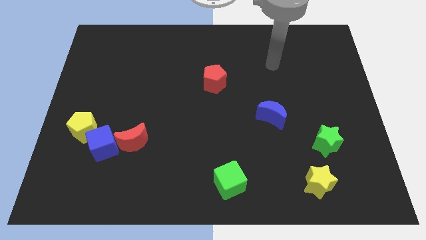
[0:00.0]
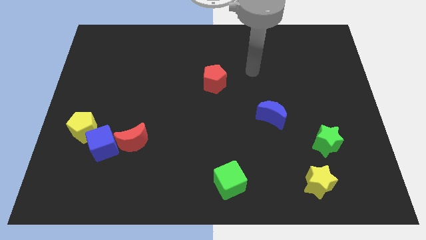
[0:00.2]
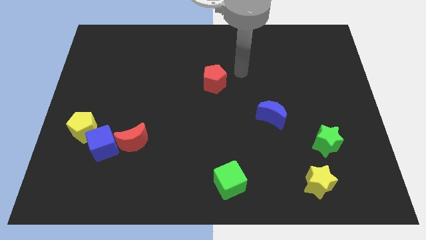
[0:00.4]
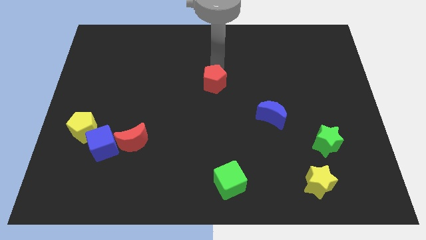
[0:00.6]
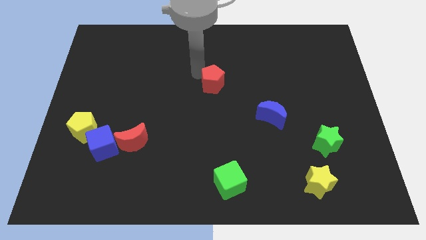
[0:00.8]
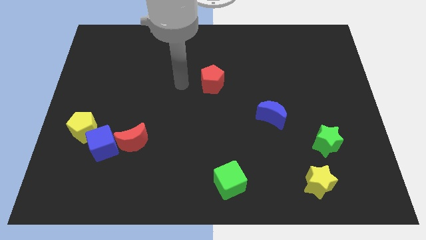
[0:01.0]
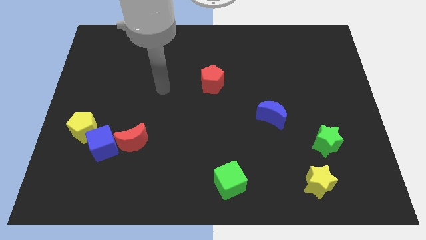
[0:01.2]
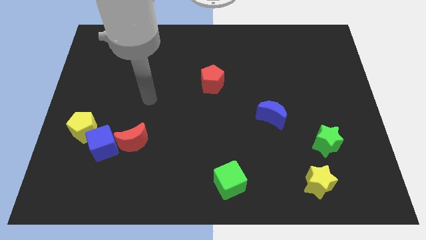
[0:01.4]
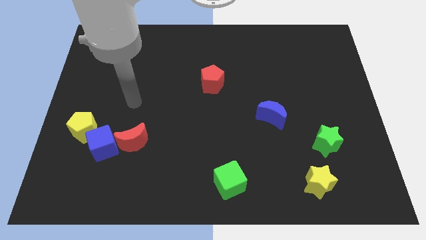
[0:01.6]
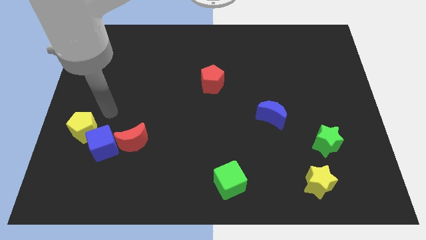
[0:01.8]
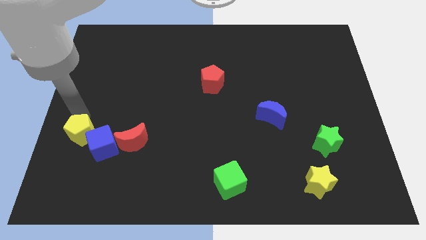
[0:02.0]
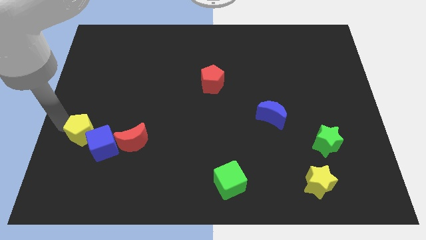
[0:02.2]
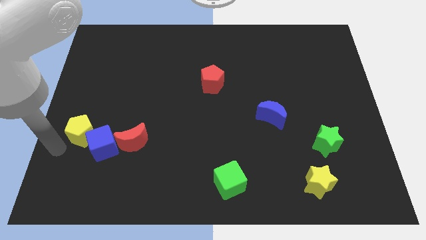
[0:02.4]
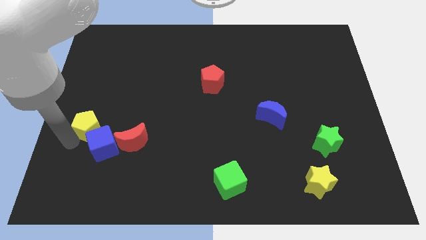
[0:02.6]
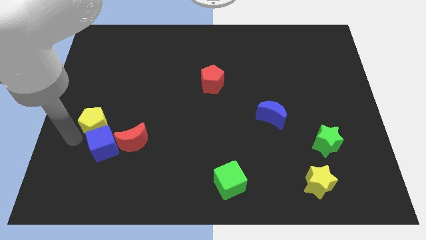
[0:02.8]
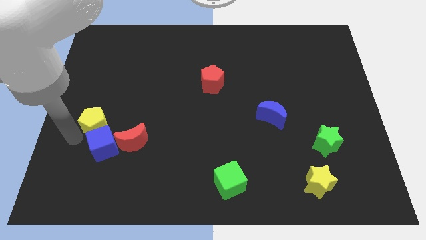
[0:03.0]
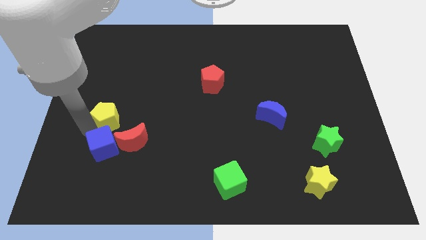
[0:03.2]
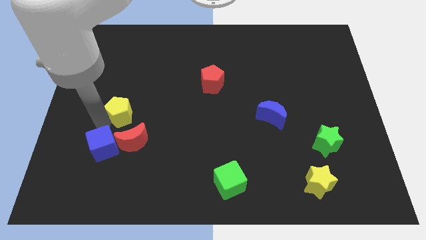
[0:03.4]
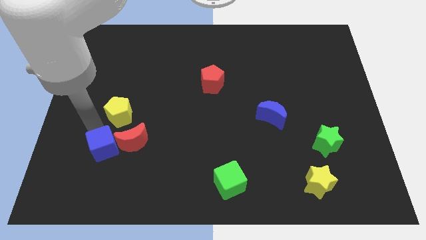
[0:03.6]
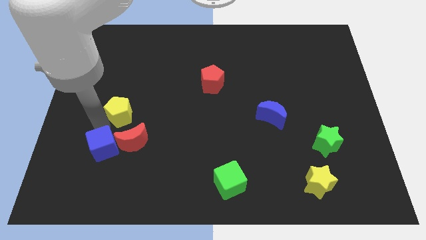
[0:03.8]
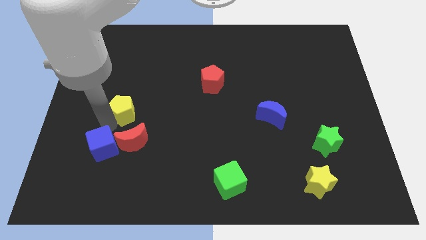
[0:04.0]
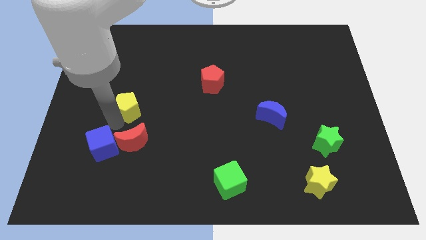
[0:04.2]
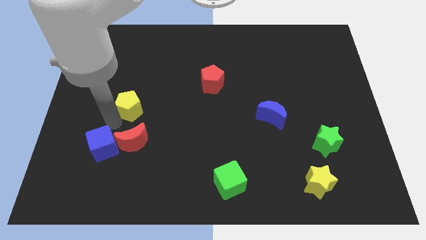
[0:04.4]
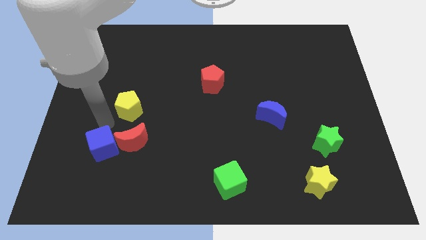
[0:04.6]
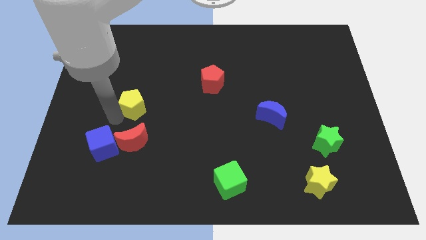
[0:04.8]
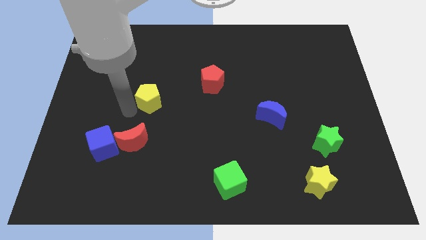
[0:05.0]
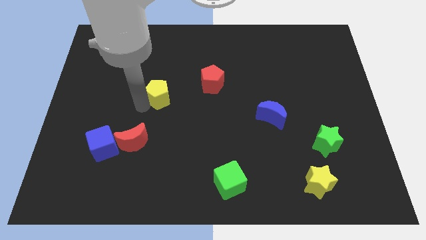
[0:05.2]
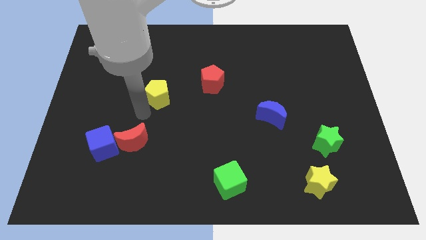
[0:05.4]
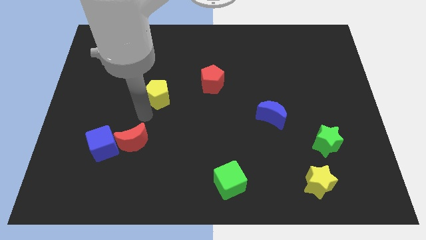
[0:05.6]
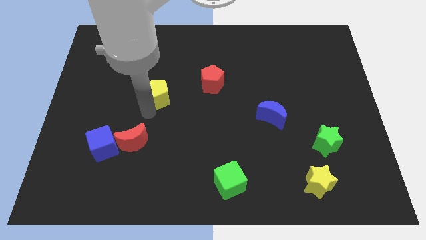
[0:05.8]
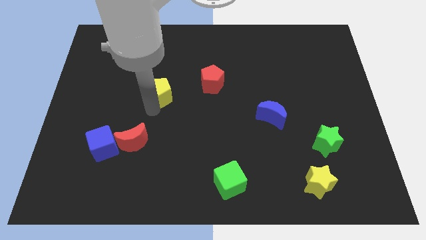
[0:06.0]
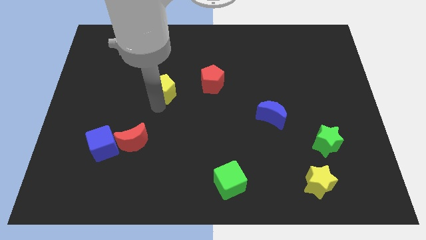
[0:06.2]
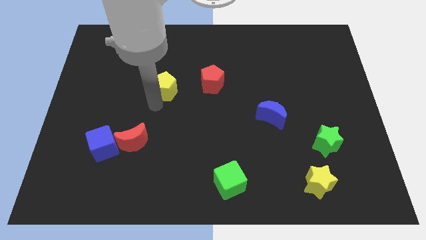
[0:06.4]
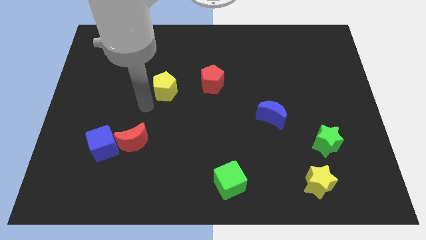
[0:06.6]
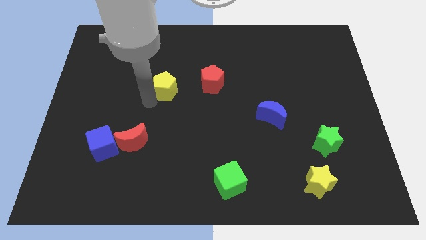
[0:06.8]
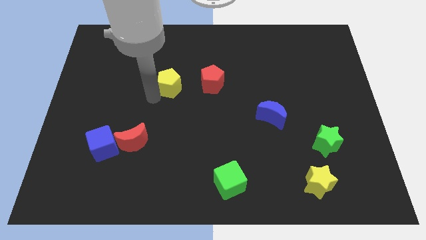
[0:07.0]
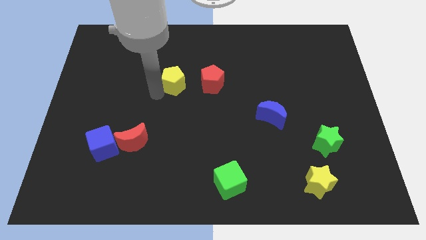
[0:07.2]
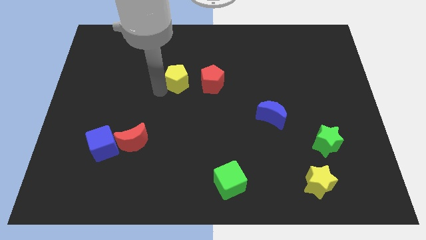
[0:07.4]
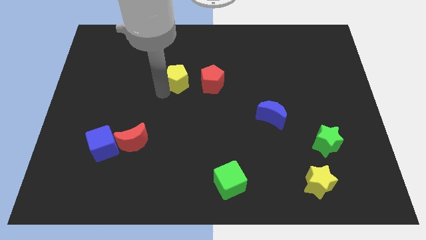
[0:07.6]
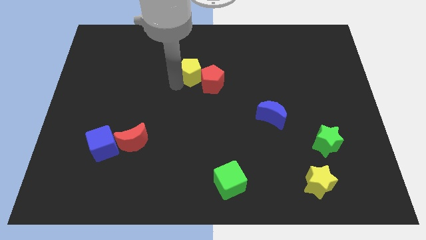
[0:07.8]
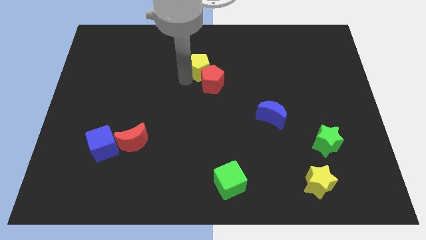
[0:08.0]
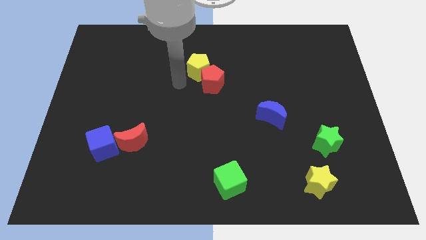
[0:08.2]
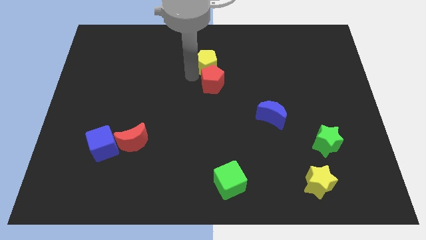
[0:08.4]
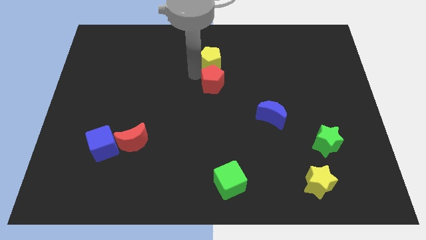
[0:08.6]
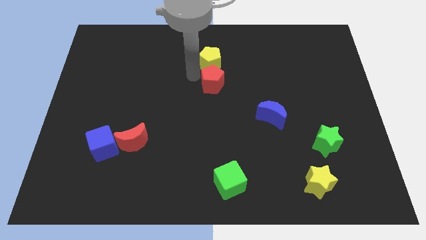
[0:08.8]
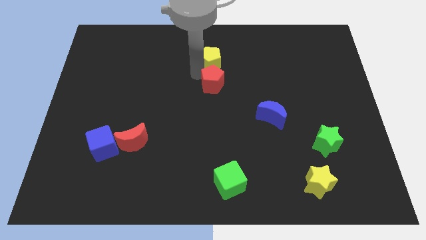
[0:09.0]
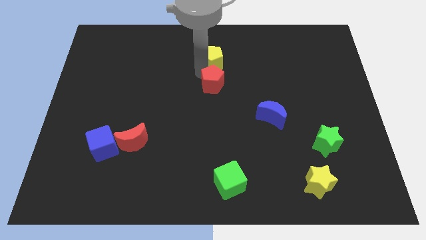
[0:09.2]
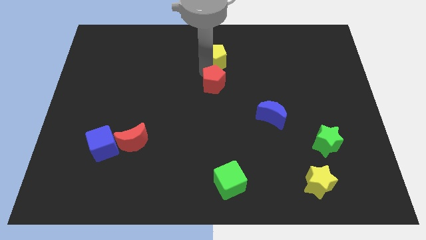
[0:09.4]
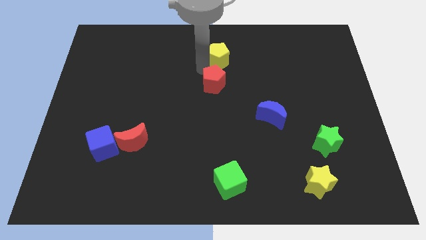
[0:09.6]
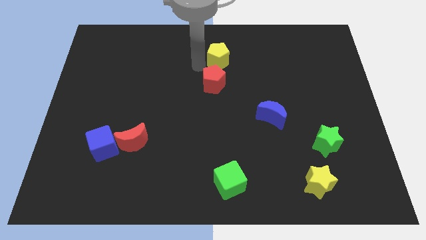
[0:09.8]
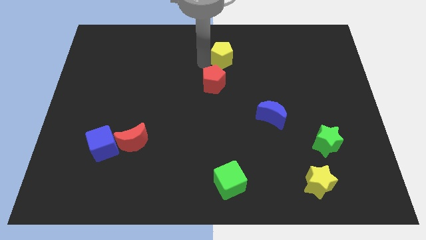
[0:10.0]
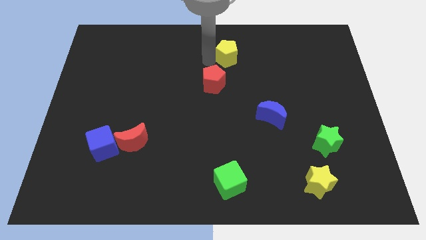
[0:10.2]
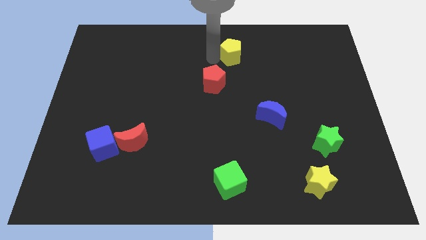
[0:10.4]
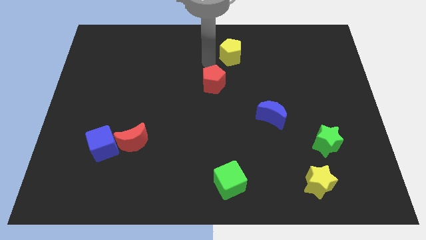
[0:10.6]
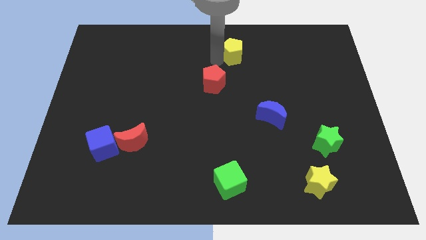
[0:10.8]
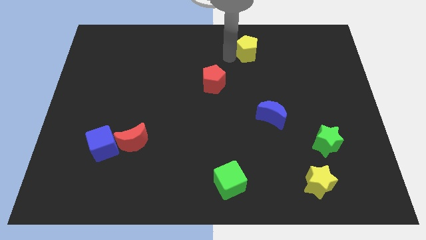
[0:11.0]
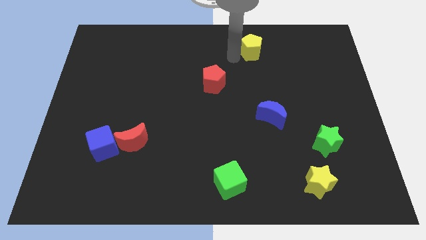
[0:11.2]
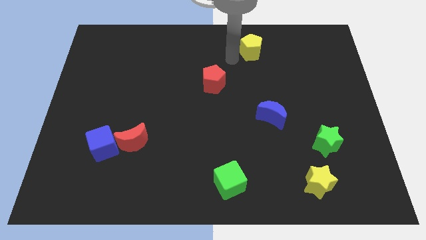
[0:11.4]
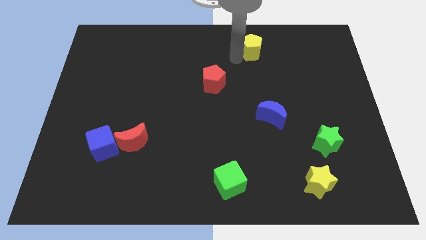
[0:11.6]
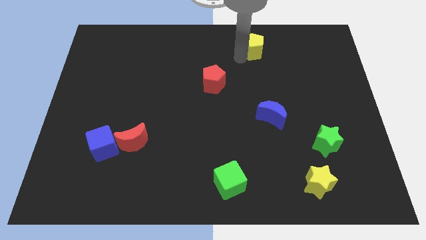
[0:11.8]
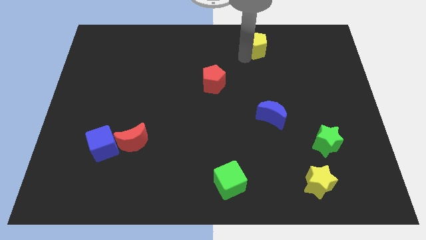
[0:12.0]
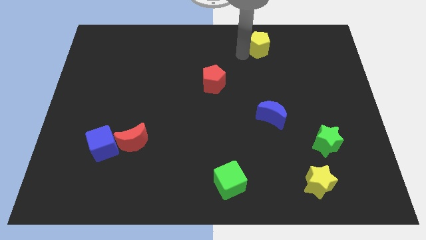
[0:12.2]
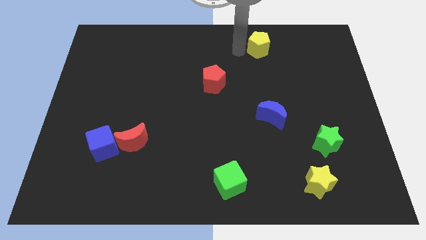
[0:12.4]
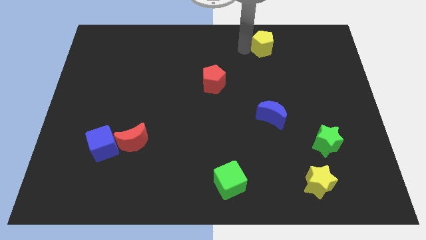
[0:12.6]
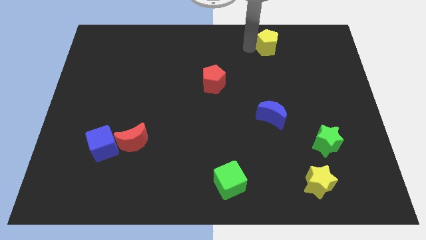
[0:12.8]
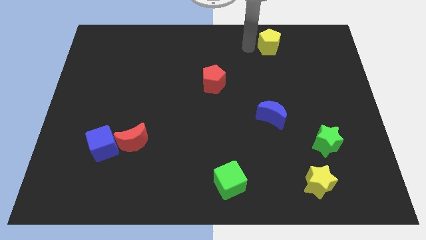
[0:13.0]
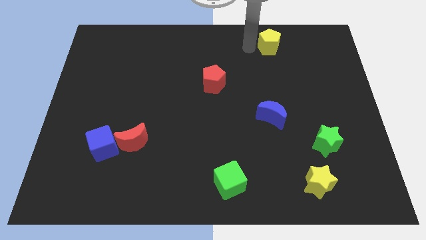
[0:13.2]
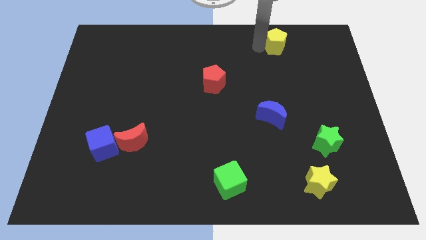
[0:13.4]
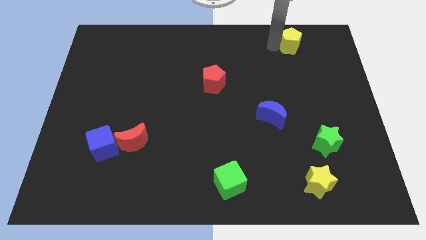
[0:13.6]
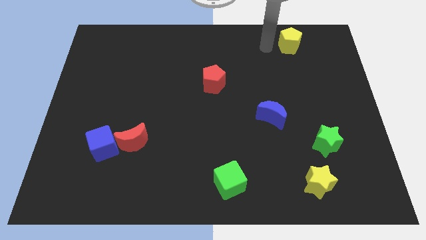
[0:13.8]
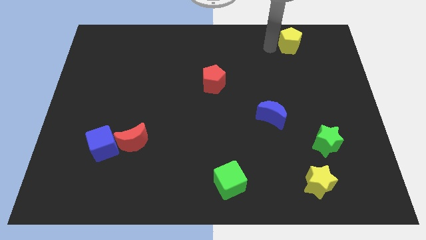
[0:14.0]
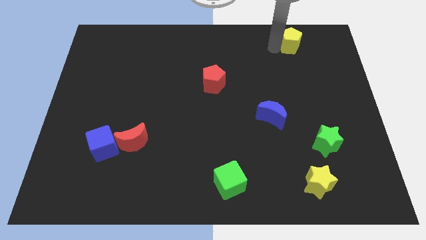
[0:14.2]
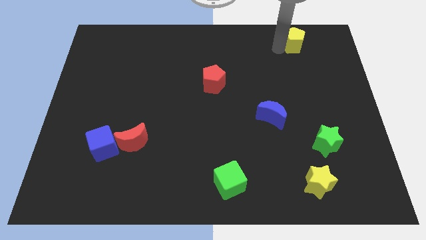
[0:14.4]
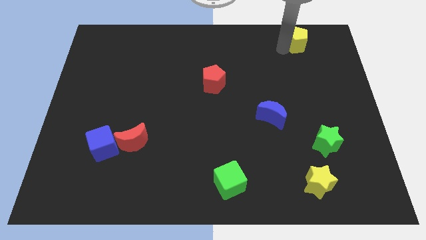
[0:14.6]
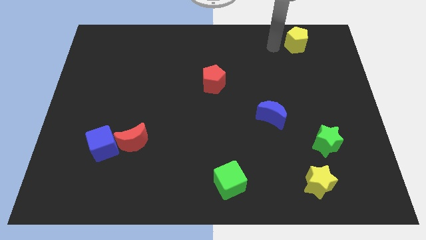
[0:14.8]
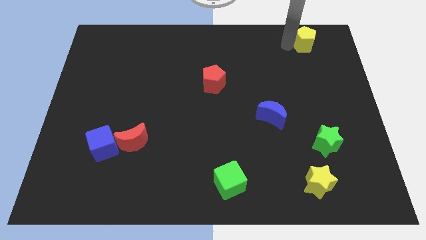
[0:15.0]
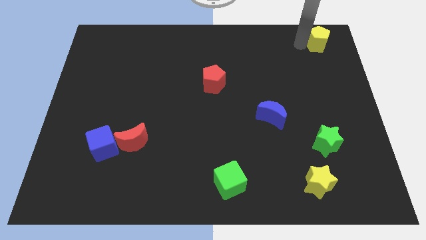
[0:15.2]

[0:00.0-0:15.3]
slide the yellow pentagon to the upper right corner
